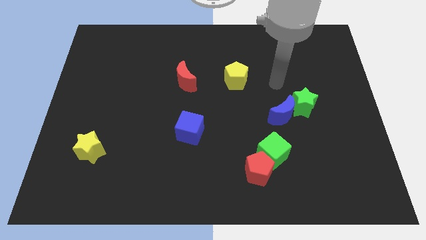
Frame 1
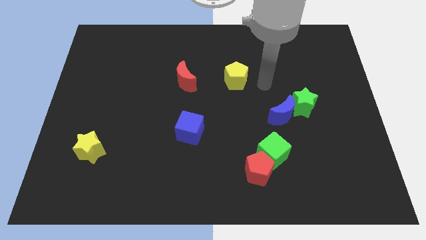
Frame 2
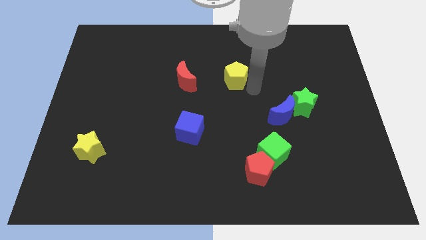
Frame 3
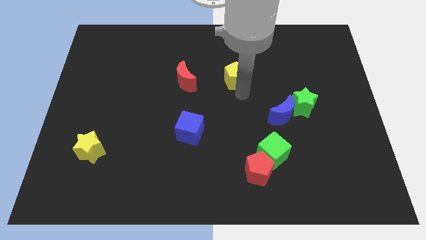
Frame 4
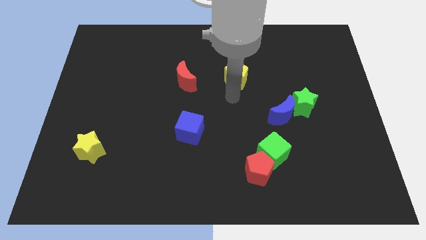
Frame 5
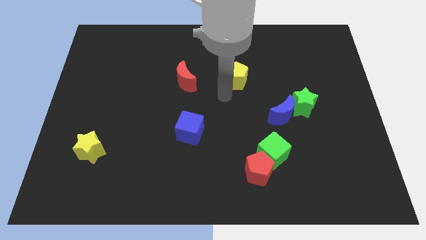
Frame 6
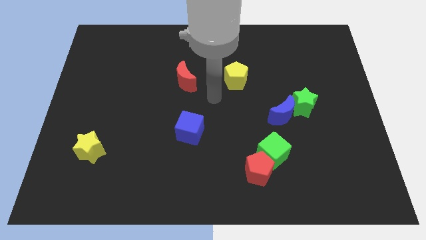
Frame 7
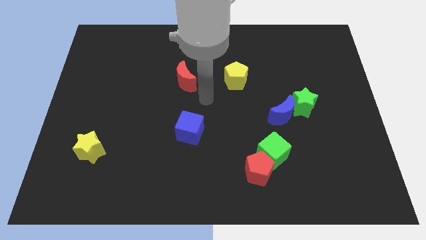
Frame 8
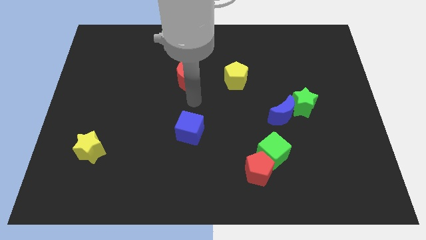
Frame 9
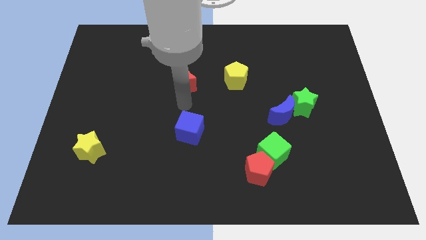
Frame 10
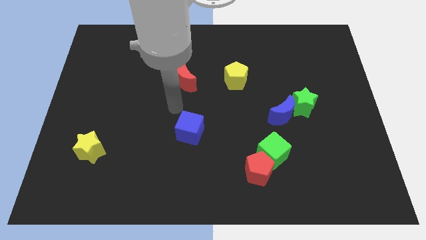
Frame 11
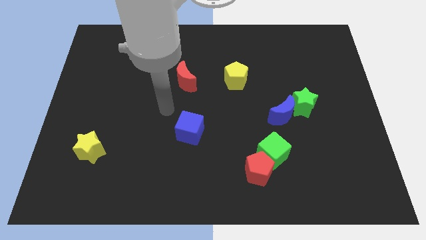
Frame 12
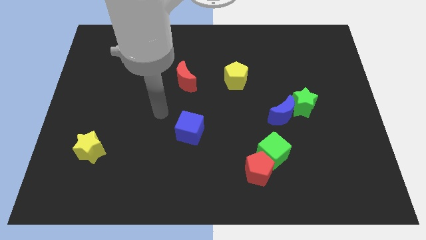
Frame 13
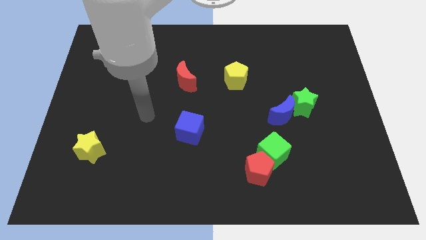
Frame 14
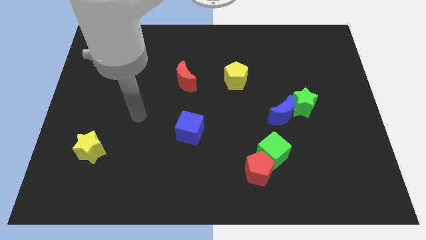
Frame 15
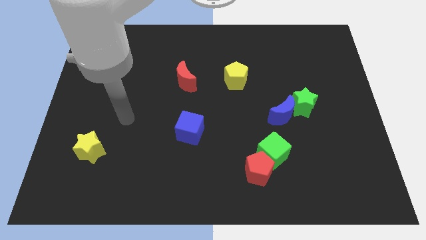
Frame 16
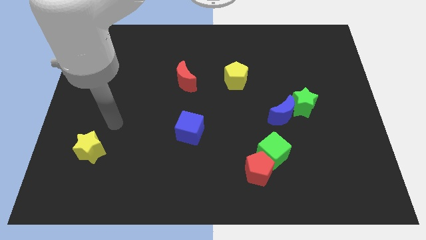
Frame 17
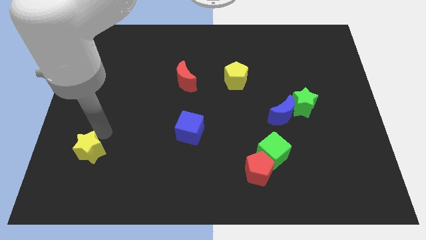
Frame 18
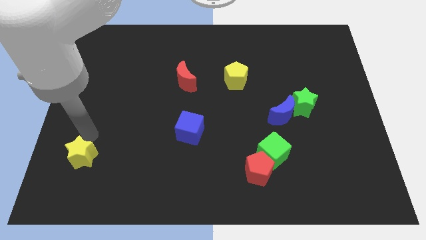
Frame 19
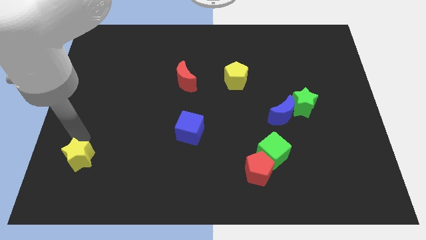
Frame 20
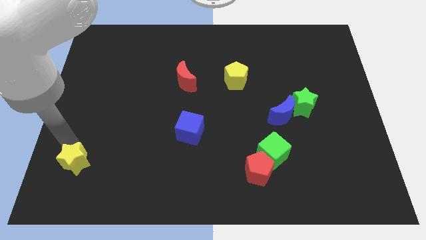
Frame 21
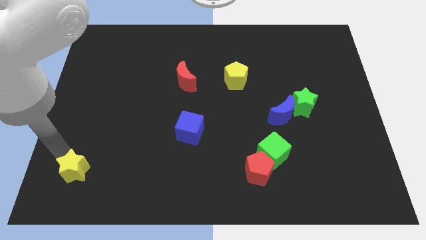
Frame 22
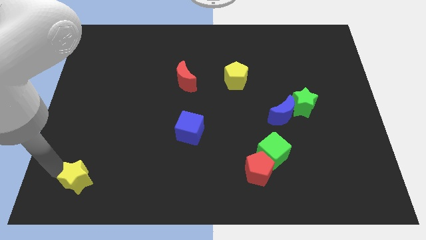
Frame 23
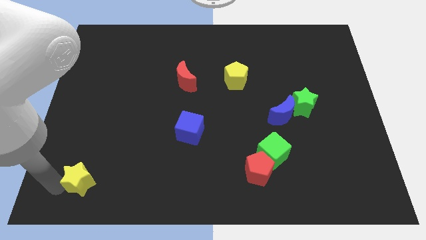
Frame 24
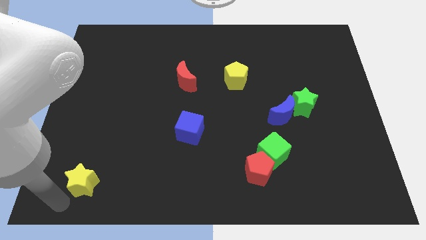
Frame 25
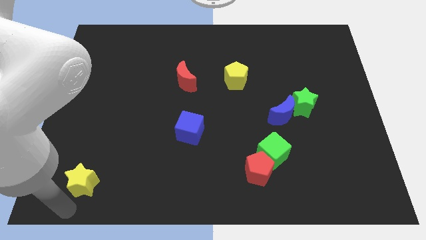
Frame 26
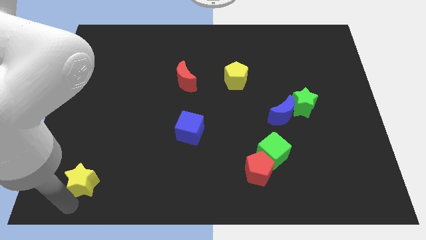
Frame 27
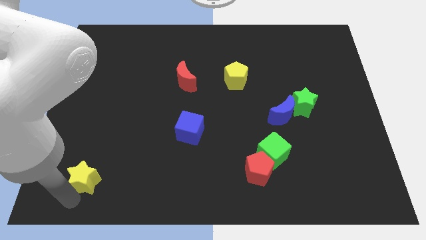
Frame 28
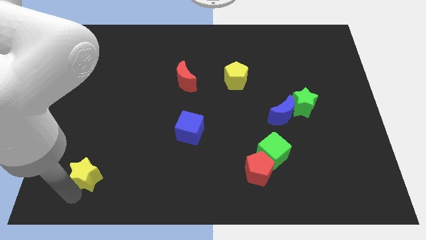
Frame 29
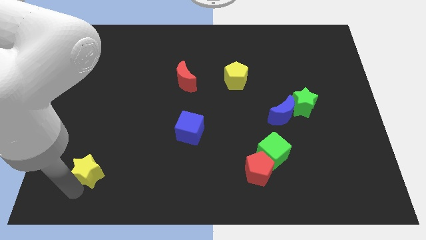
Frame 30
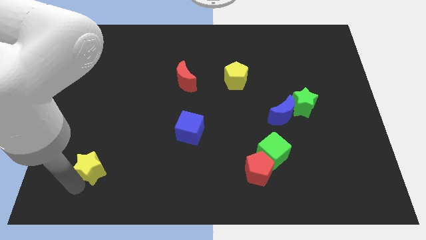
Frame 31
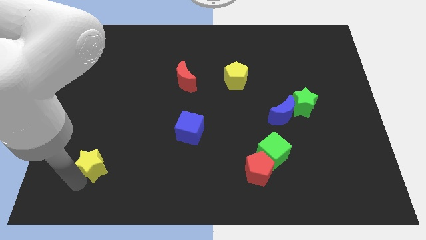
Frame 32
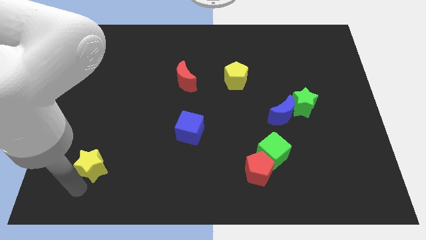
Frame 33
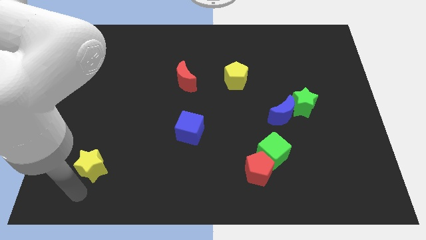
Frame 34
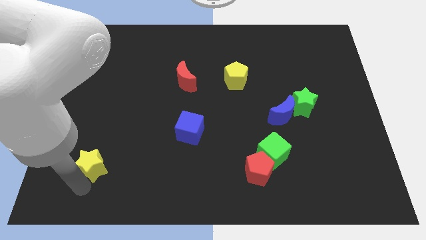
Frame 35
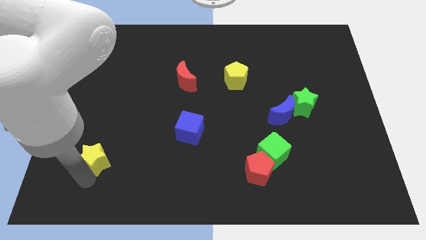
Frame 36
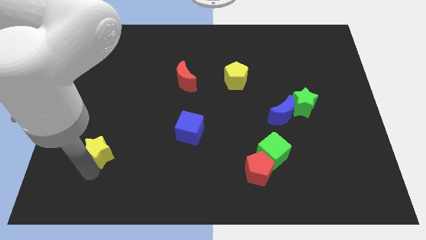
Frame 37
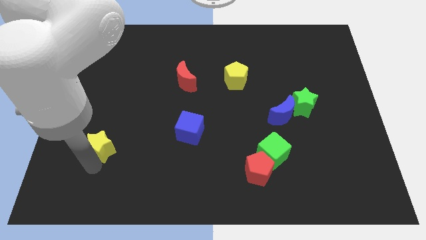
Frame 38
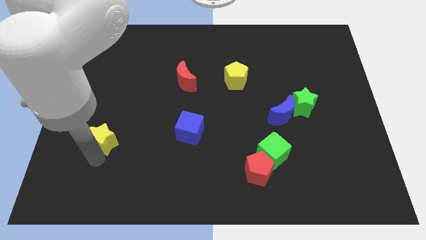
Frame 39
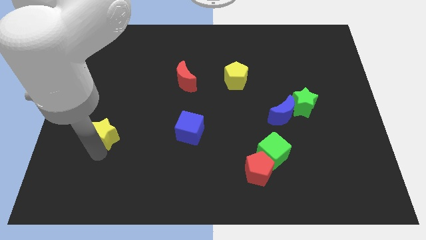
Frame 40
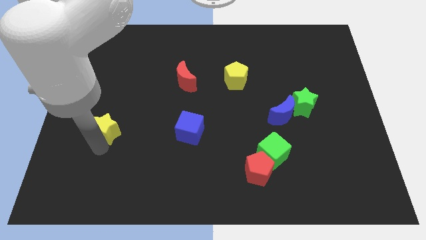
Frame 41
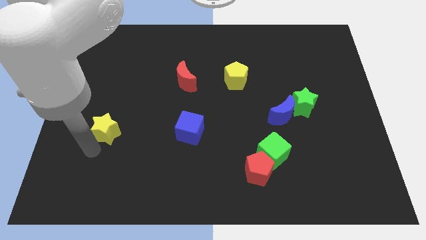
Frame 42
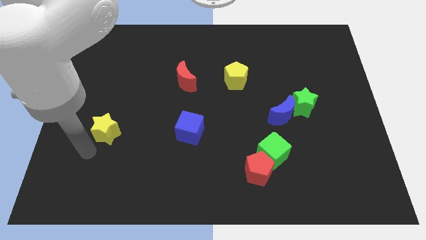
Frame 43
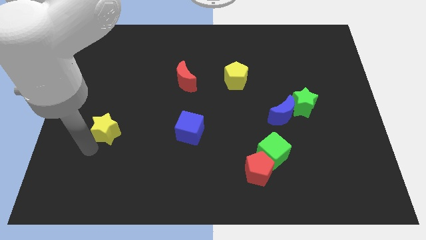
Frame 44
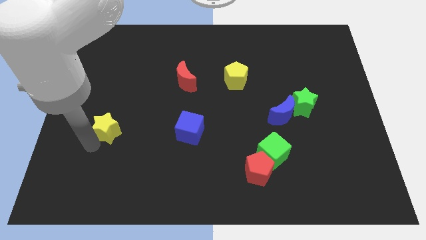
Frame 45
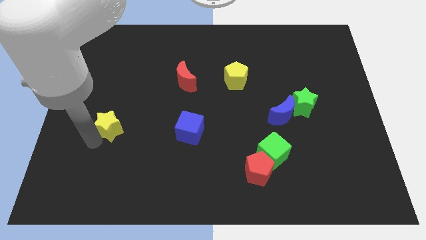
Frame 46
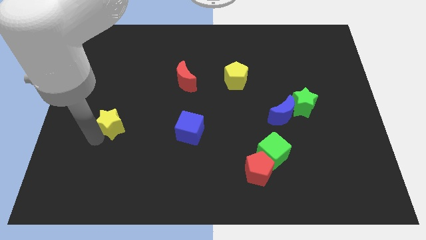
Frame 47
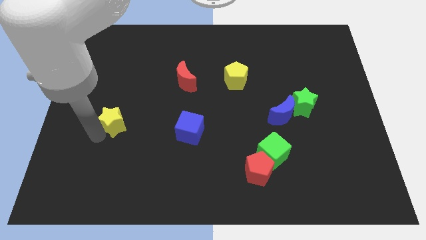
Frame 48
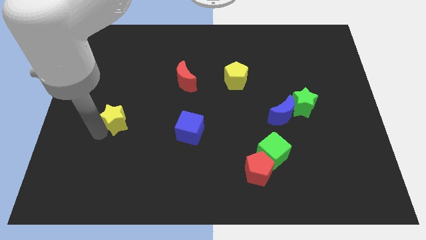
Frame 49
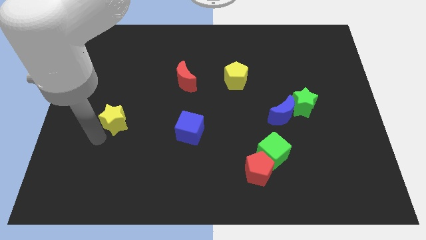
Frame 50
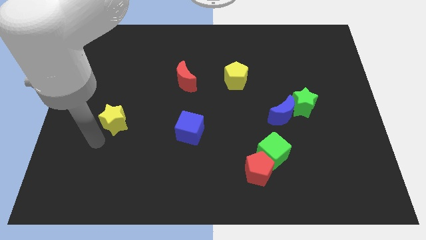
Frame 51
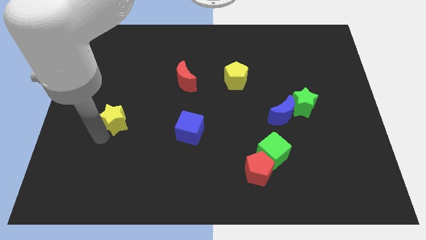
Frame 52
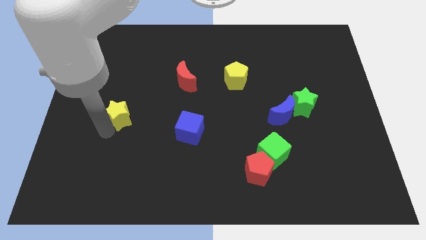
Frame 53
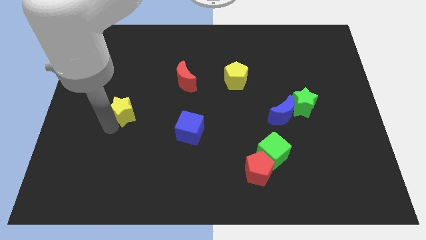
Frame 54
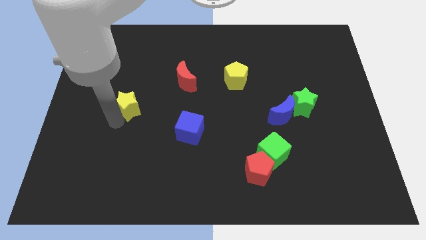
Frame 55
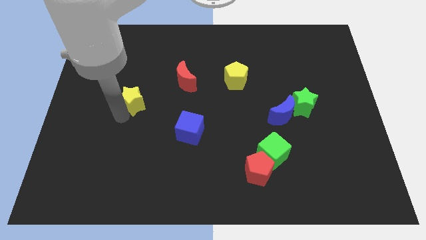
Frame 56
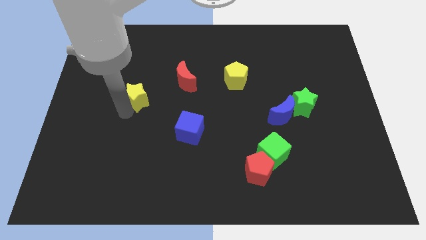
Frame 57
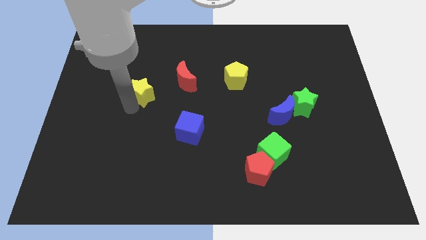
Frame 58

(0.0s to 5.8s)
slide the yellow star just left of the red moon

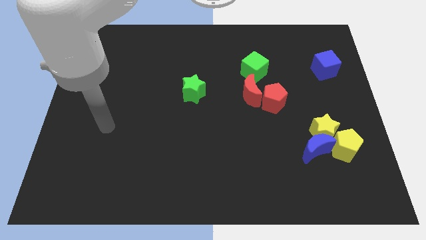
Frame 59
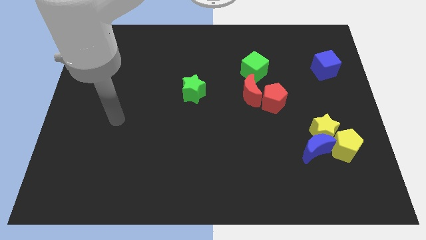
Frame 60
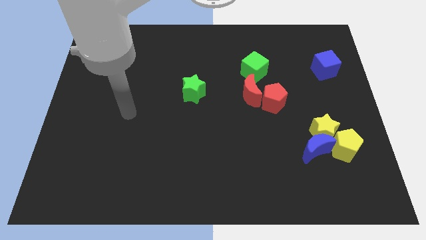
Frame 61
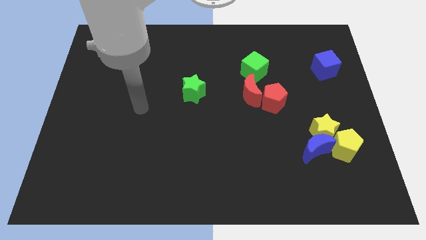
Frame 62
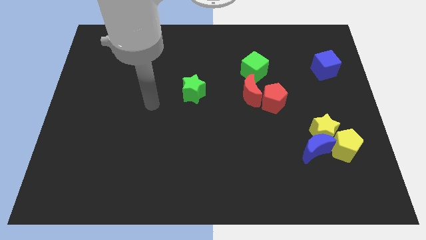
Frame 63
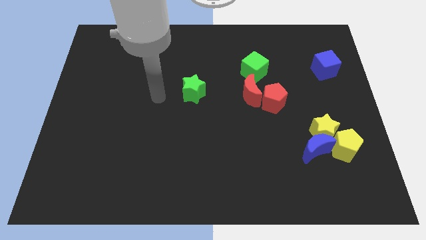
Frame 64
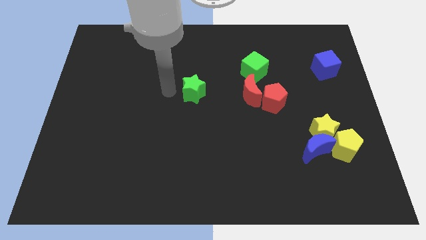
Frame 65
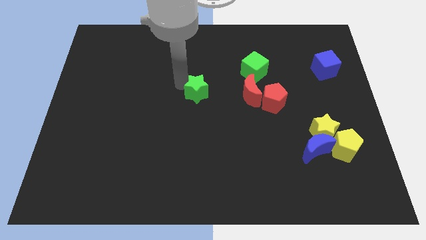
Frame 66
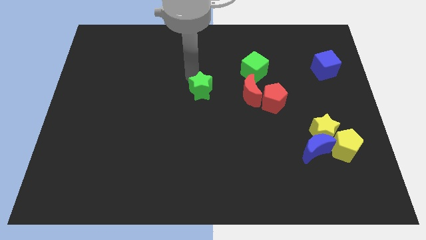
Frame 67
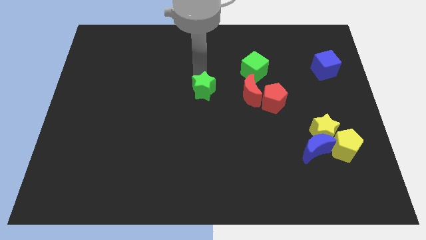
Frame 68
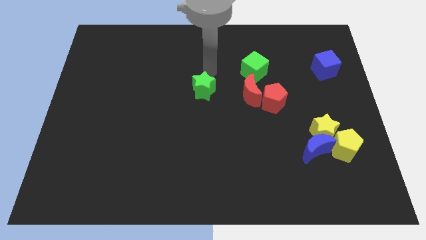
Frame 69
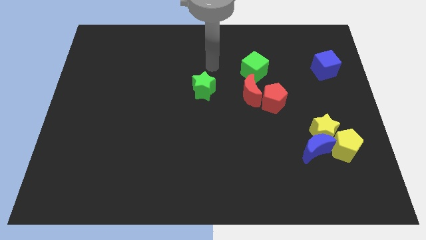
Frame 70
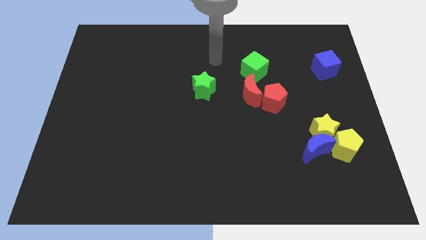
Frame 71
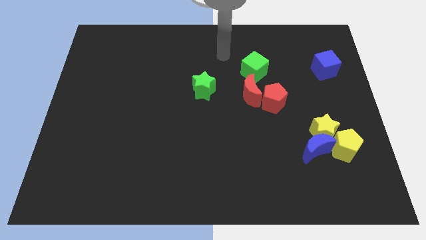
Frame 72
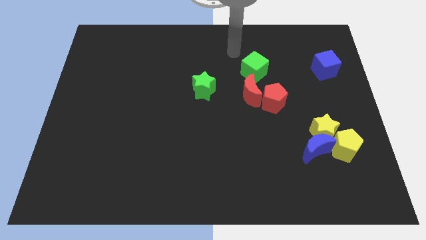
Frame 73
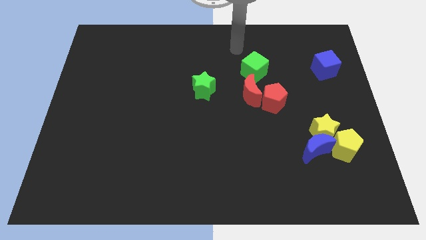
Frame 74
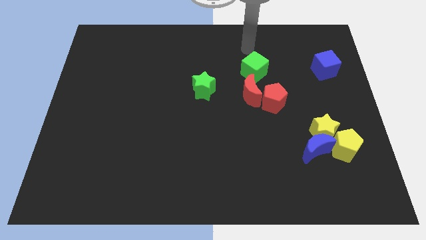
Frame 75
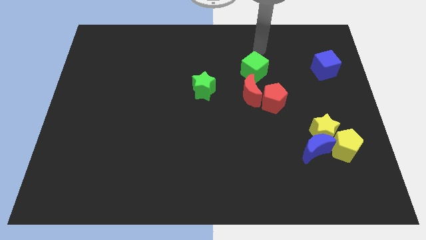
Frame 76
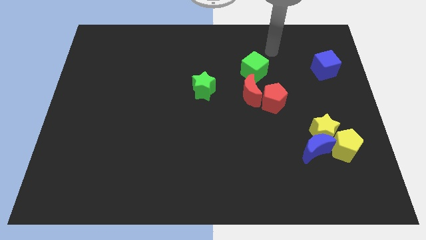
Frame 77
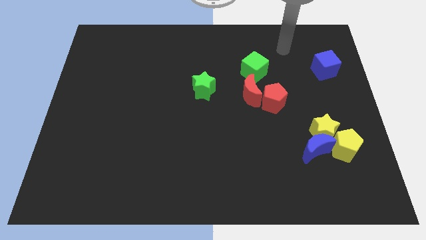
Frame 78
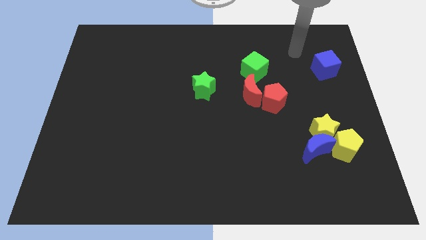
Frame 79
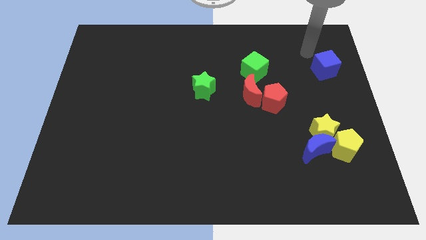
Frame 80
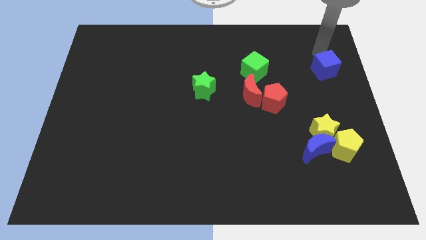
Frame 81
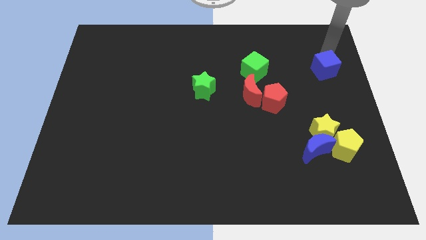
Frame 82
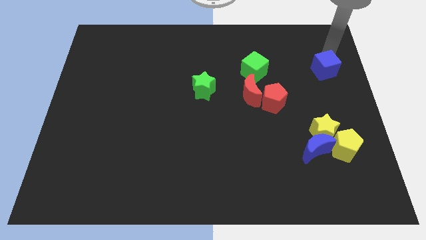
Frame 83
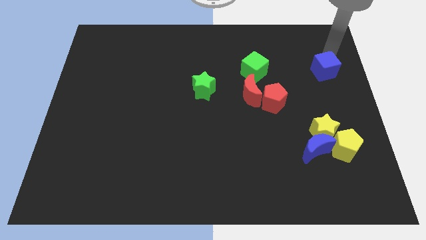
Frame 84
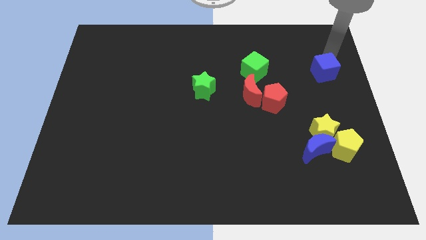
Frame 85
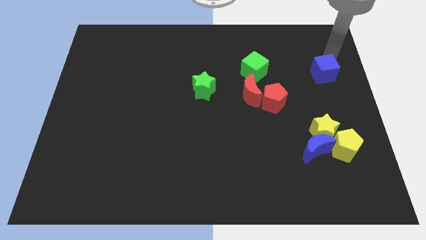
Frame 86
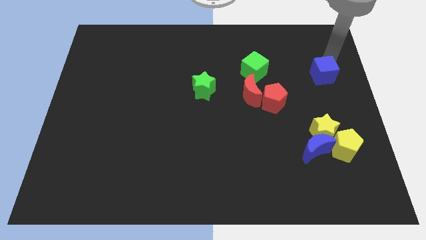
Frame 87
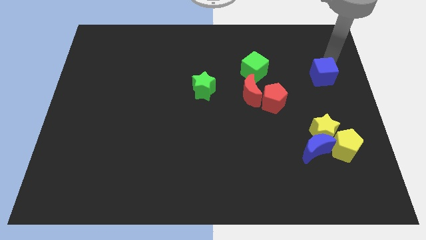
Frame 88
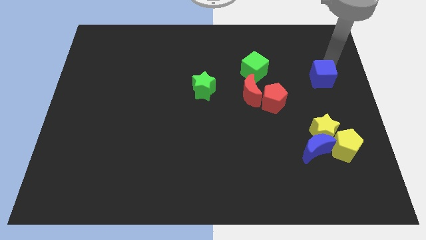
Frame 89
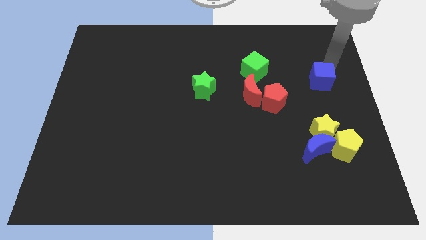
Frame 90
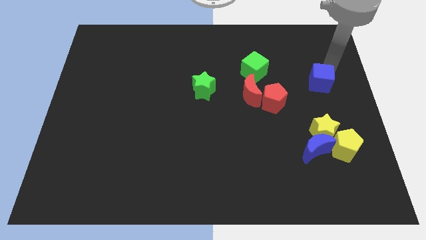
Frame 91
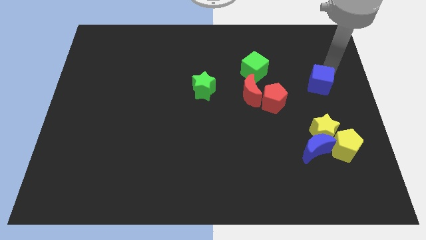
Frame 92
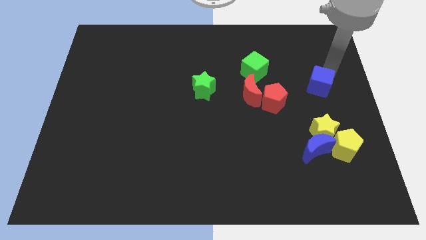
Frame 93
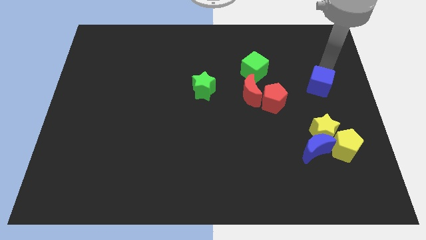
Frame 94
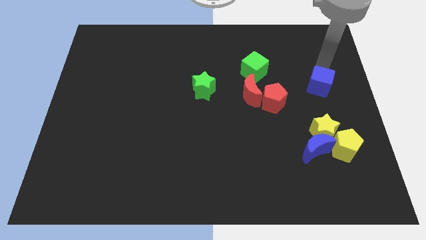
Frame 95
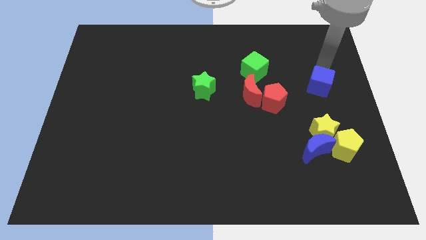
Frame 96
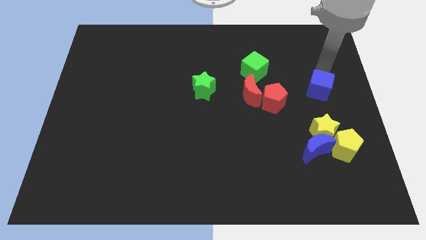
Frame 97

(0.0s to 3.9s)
push the blue cube just right of the red pentagon
